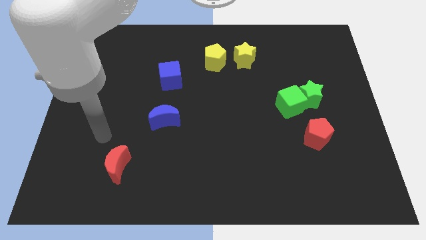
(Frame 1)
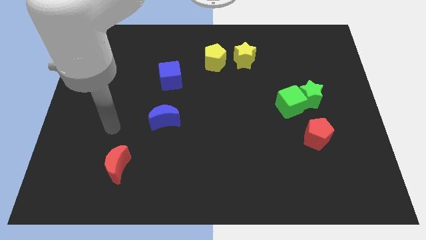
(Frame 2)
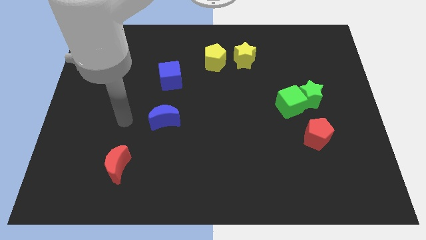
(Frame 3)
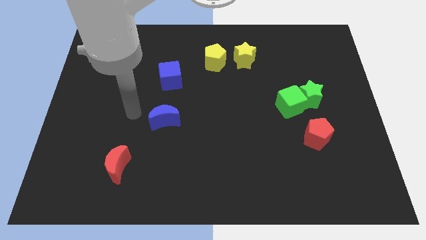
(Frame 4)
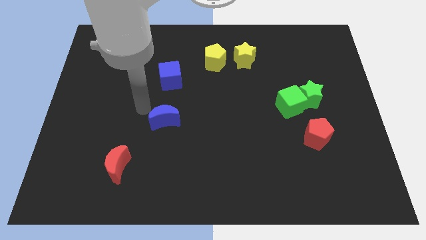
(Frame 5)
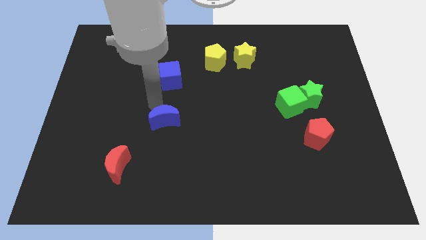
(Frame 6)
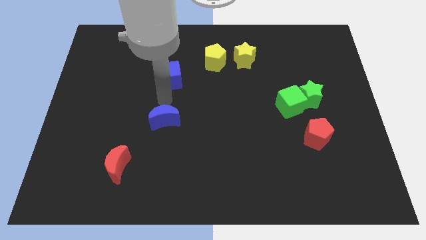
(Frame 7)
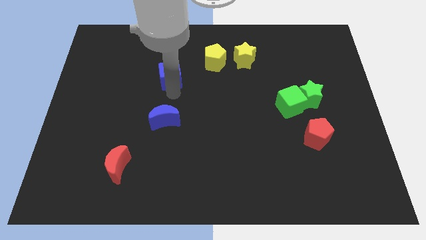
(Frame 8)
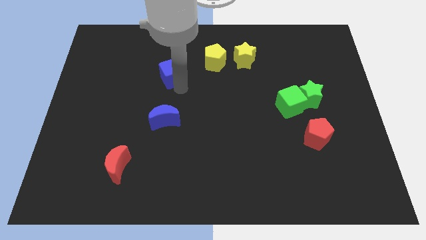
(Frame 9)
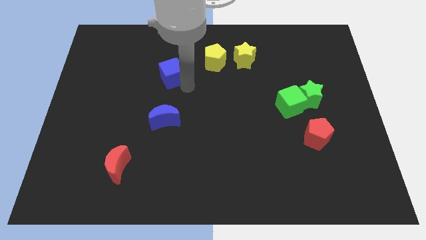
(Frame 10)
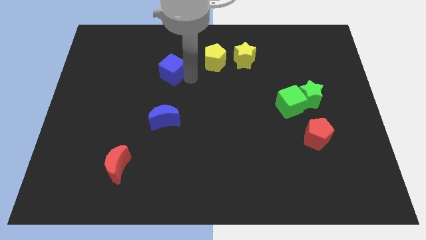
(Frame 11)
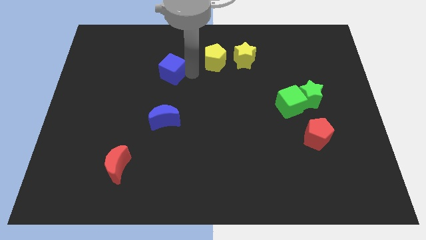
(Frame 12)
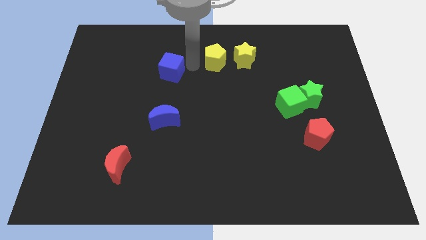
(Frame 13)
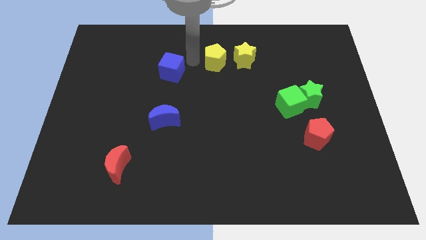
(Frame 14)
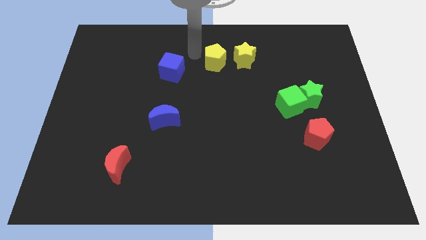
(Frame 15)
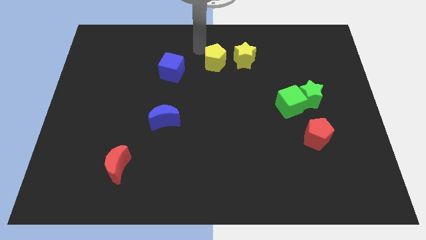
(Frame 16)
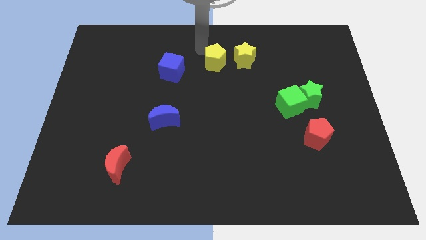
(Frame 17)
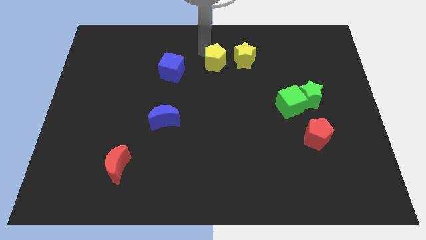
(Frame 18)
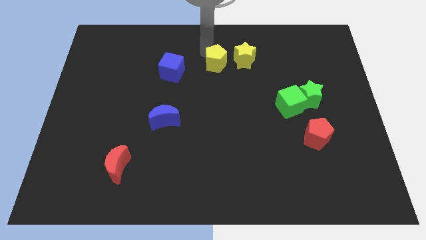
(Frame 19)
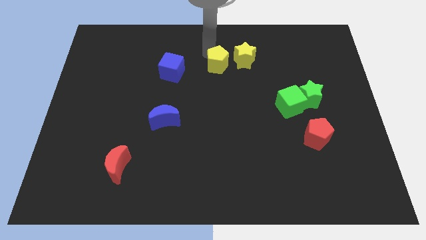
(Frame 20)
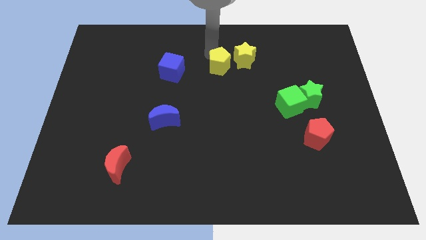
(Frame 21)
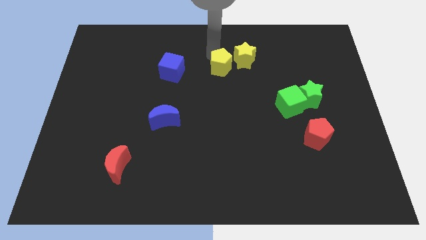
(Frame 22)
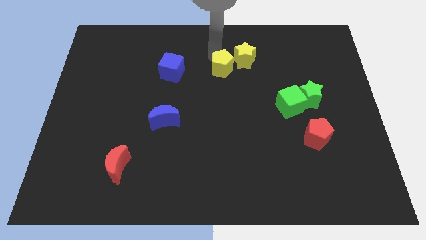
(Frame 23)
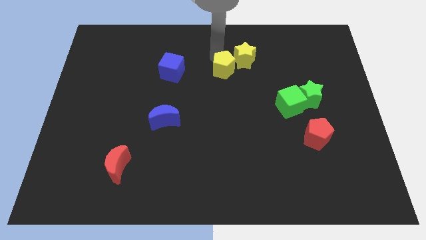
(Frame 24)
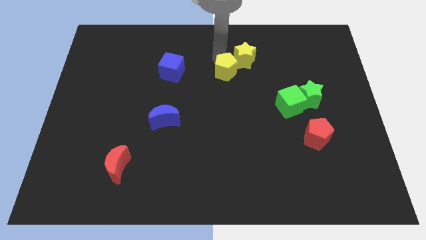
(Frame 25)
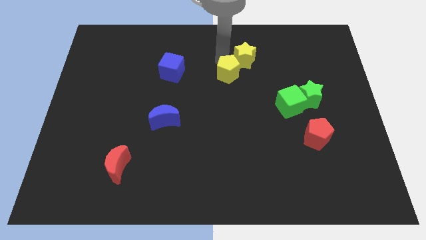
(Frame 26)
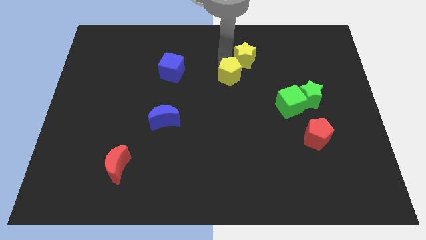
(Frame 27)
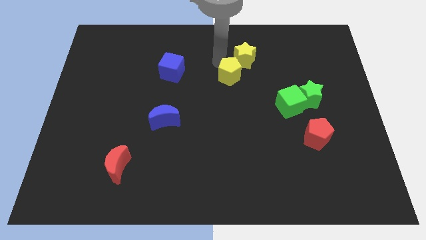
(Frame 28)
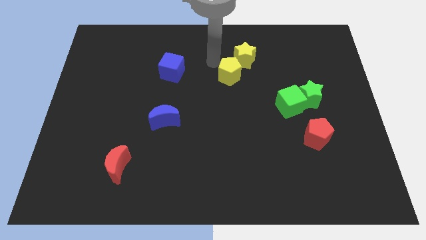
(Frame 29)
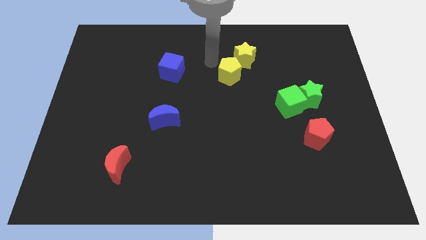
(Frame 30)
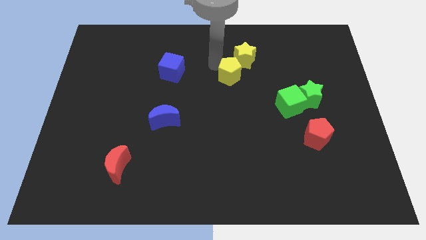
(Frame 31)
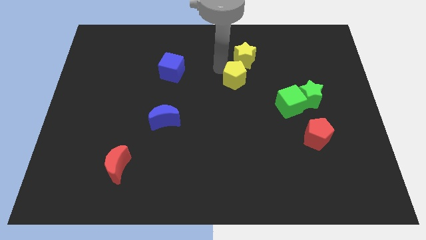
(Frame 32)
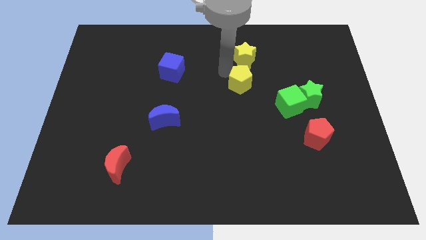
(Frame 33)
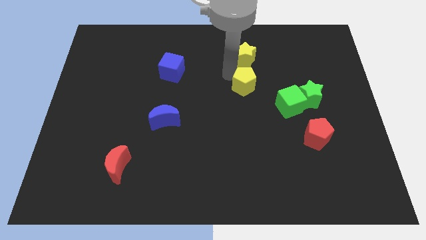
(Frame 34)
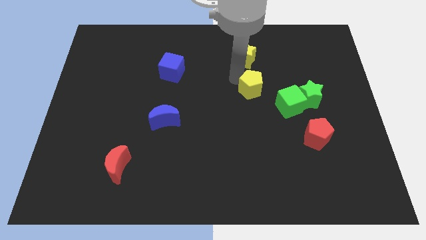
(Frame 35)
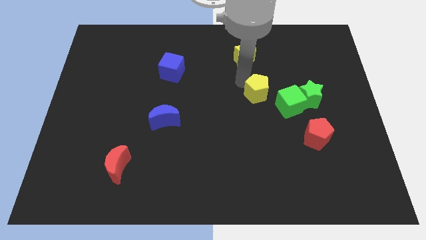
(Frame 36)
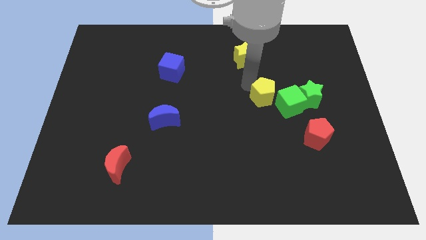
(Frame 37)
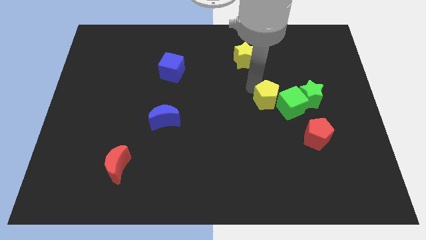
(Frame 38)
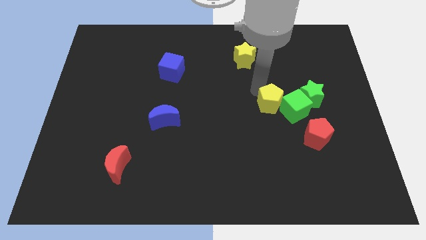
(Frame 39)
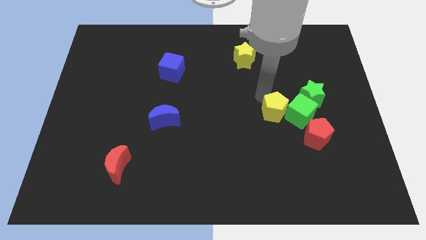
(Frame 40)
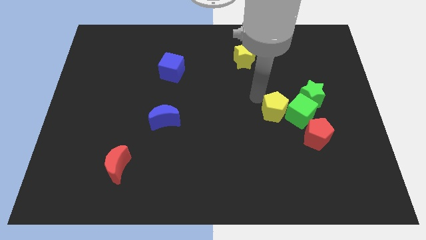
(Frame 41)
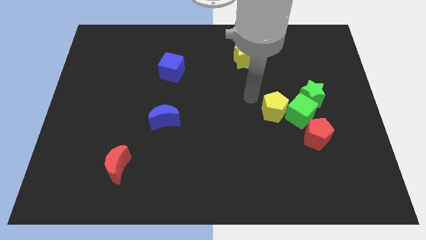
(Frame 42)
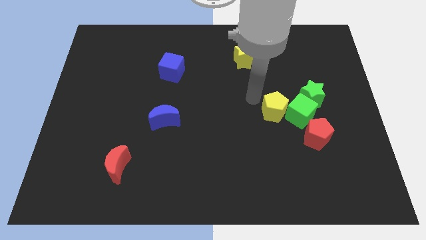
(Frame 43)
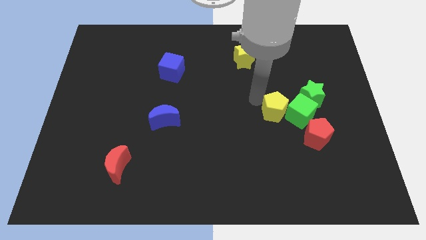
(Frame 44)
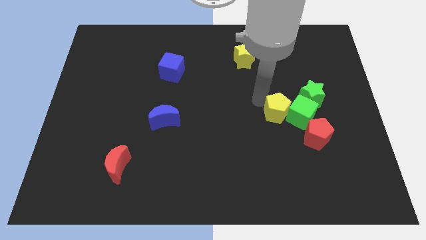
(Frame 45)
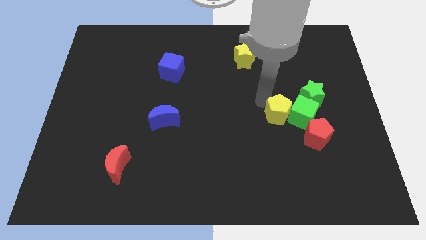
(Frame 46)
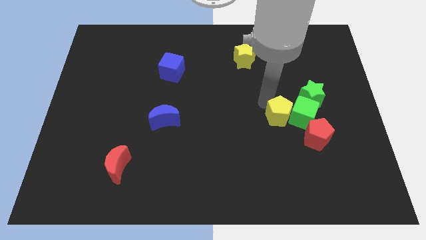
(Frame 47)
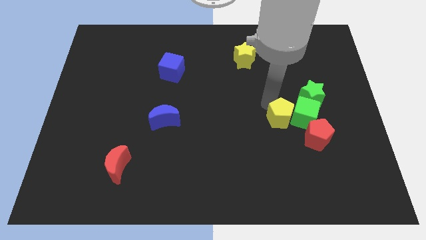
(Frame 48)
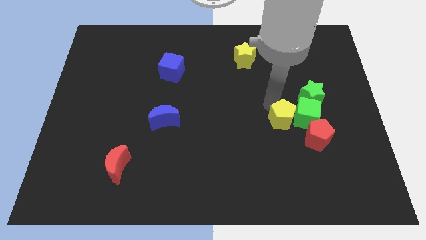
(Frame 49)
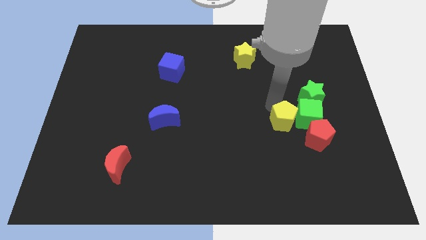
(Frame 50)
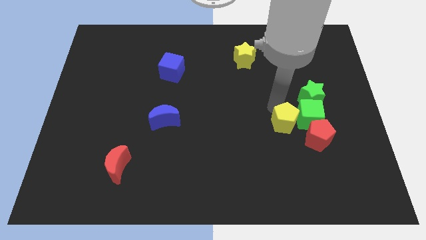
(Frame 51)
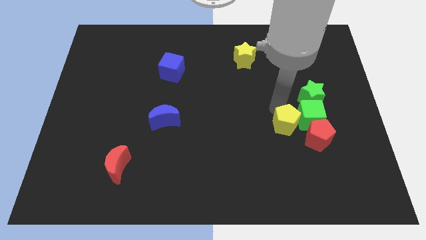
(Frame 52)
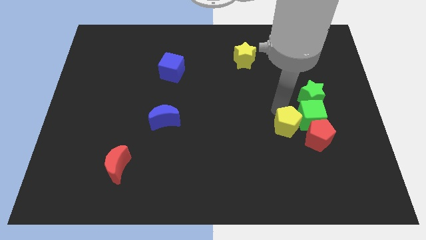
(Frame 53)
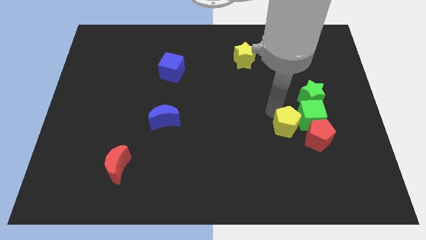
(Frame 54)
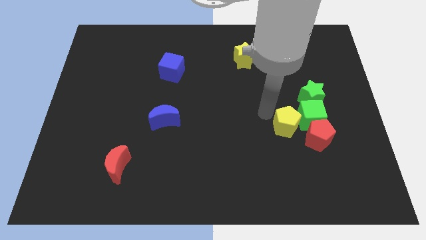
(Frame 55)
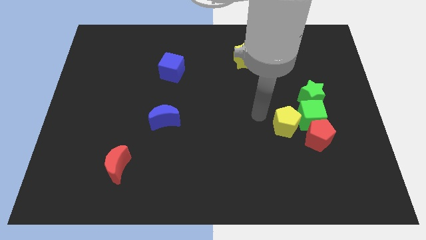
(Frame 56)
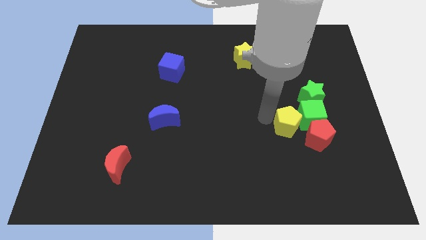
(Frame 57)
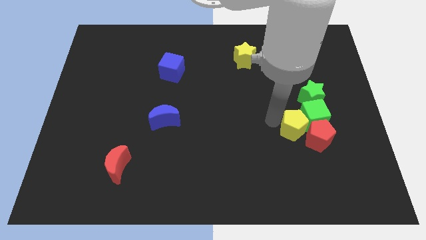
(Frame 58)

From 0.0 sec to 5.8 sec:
put the yellow pentagon close to the red pentagon

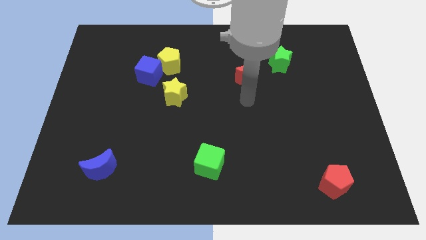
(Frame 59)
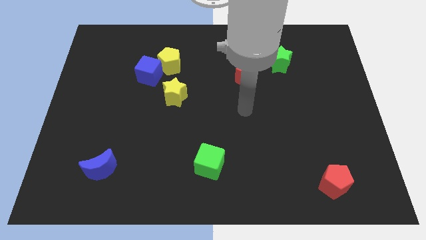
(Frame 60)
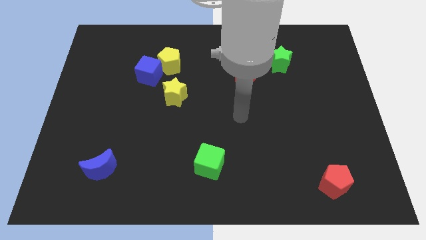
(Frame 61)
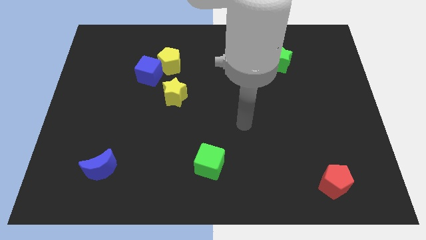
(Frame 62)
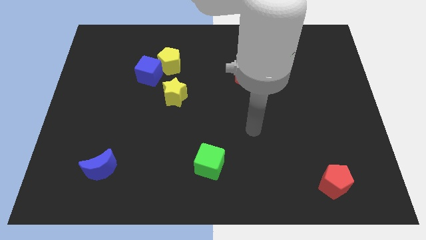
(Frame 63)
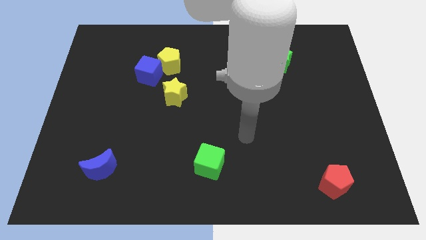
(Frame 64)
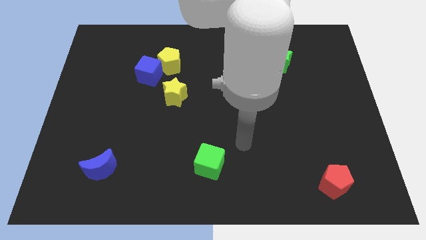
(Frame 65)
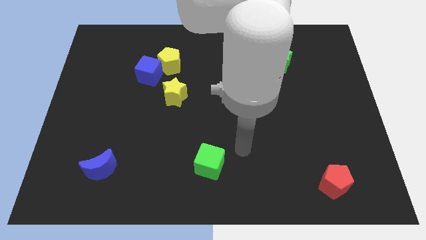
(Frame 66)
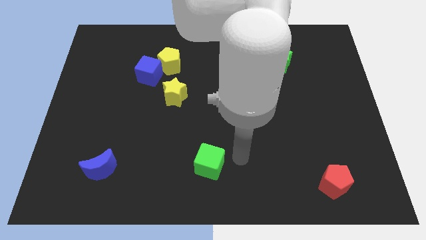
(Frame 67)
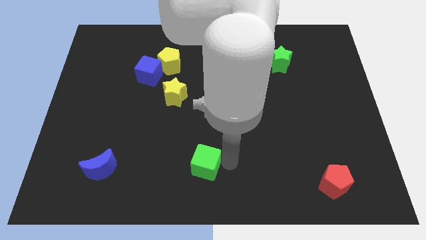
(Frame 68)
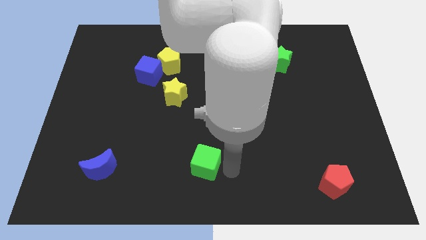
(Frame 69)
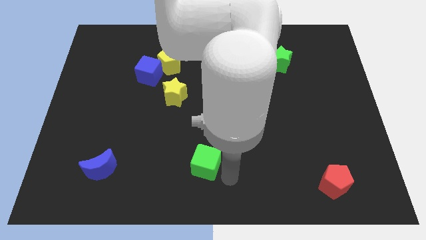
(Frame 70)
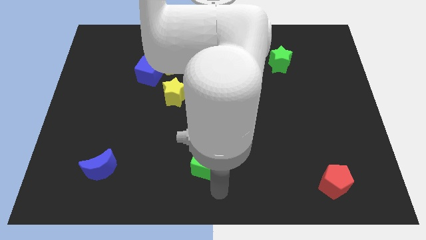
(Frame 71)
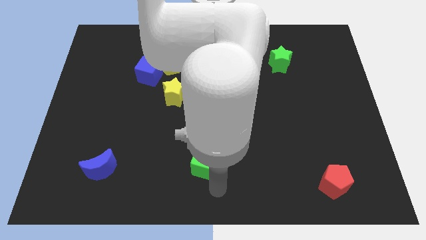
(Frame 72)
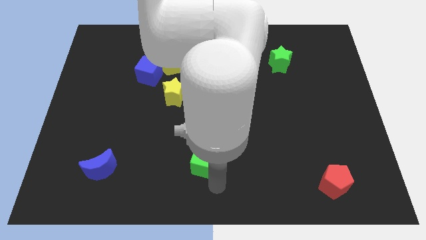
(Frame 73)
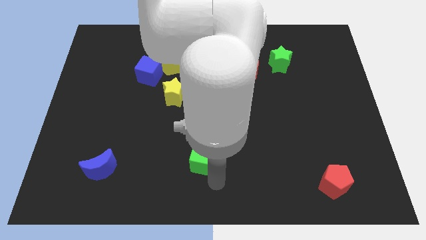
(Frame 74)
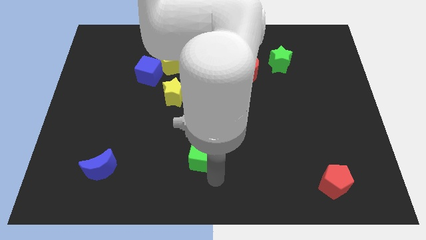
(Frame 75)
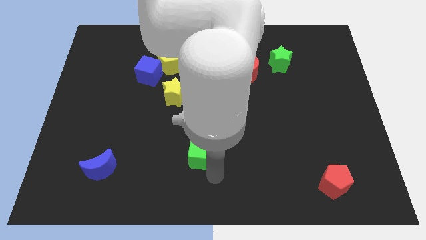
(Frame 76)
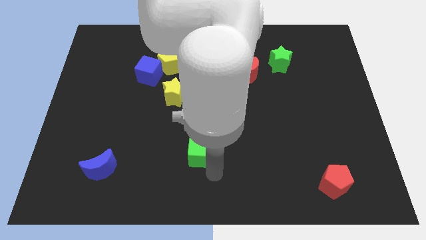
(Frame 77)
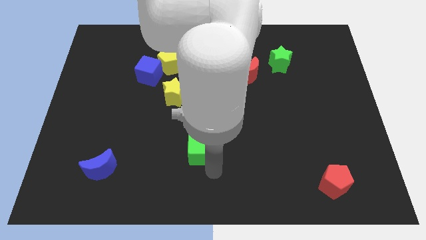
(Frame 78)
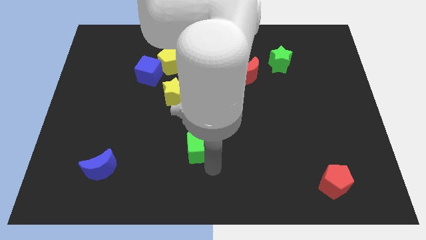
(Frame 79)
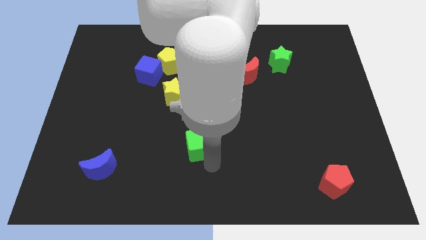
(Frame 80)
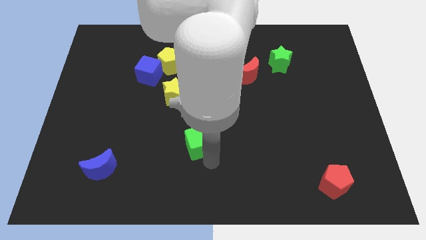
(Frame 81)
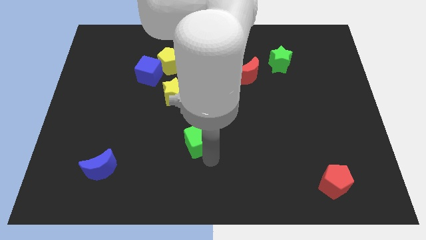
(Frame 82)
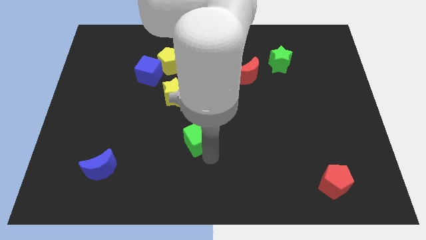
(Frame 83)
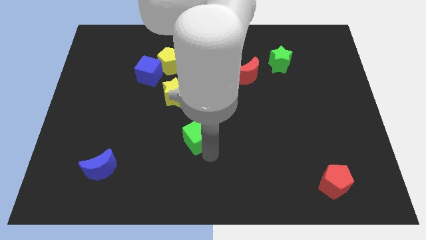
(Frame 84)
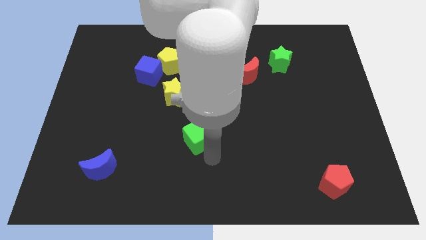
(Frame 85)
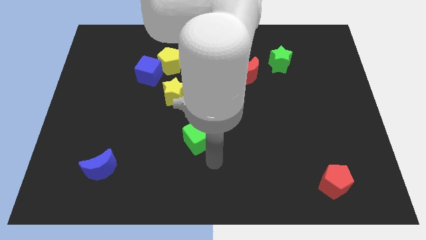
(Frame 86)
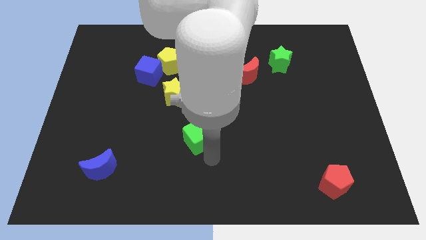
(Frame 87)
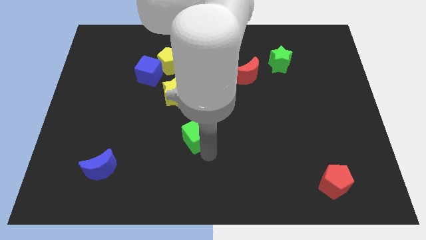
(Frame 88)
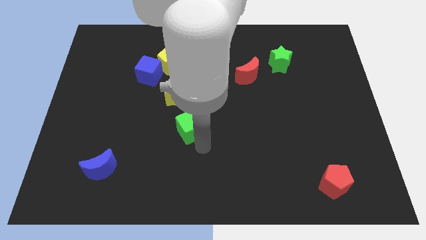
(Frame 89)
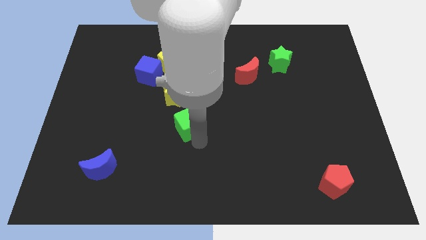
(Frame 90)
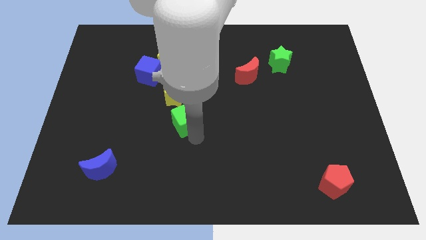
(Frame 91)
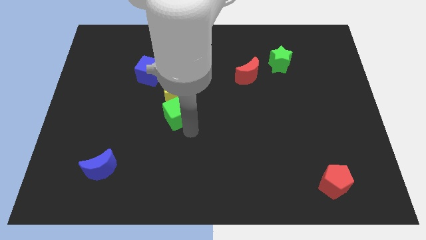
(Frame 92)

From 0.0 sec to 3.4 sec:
put the green cube close to the yellow star
